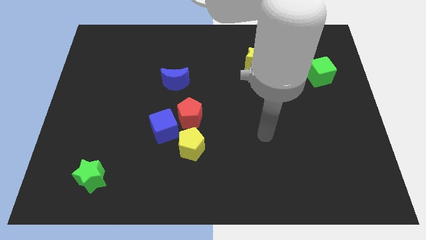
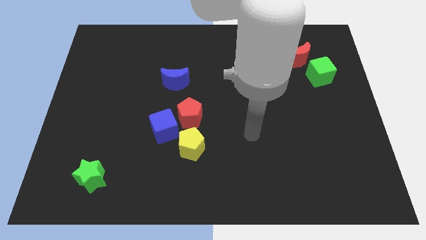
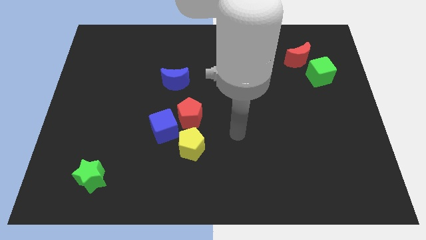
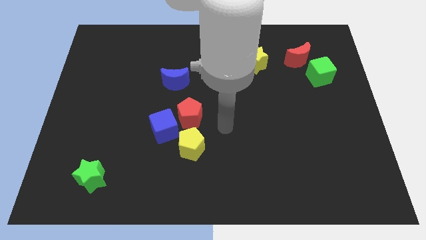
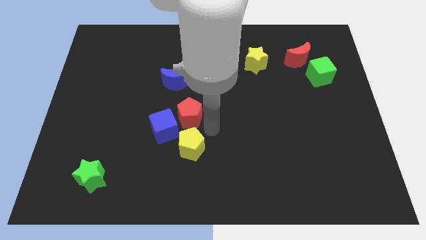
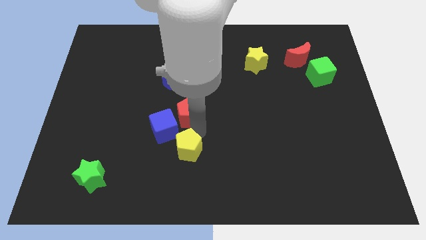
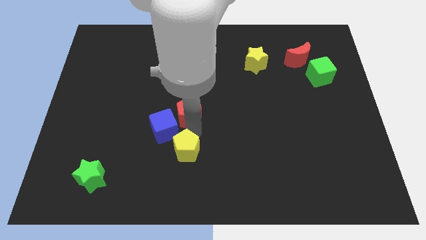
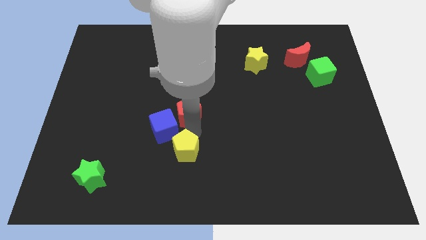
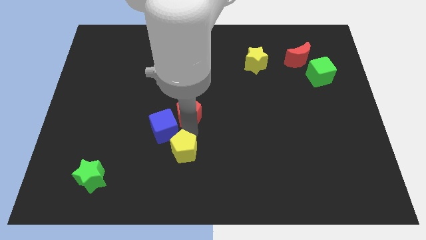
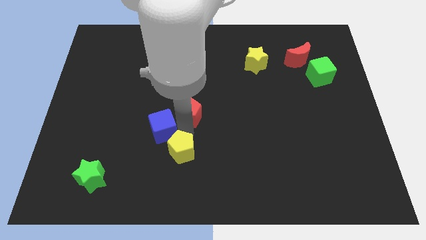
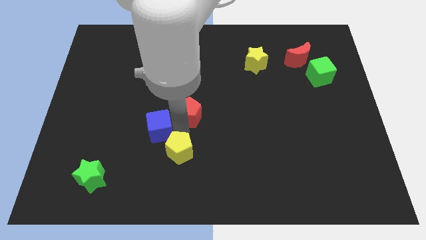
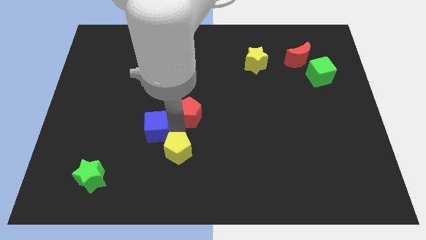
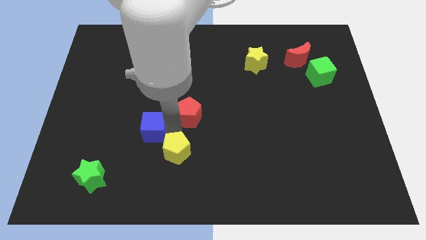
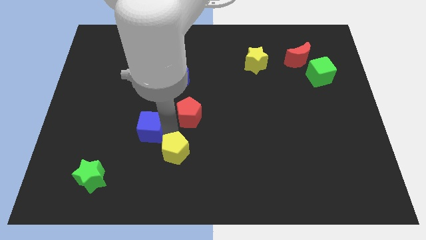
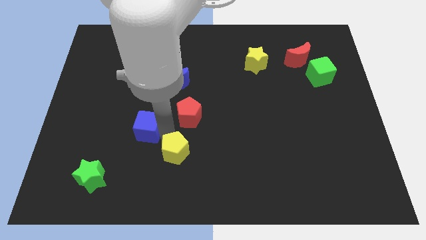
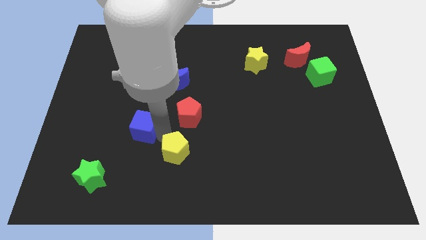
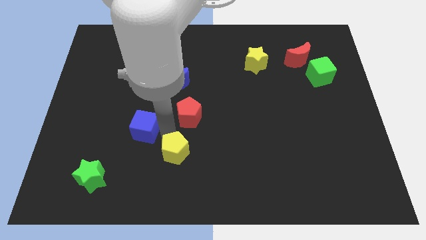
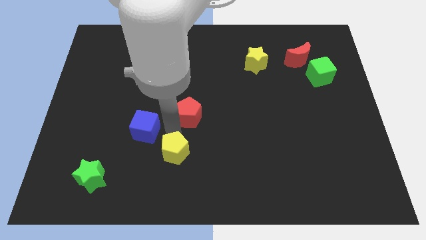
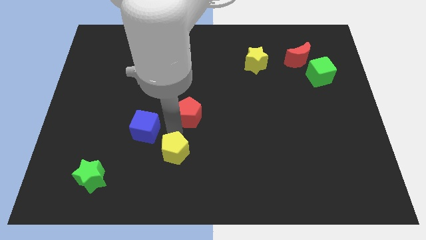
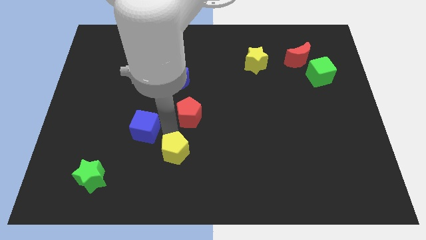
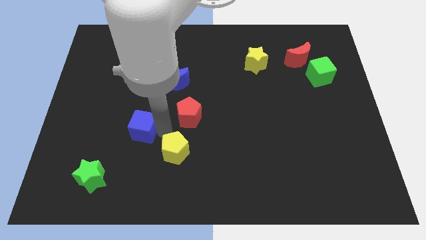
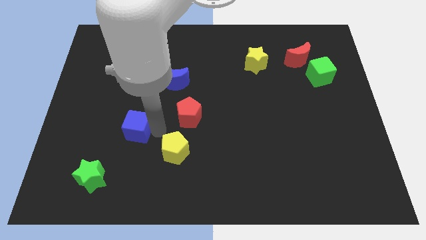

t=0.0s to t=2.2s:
move the blue cube away from the red pentagon and yellow pentagon

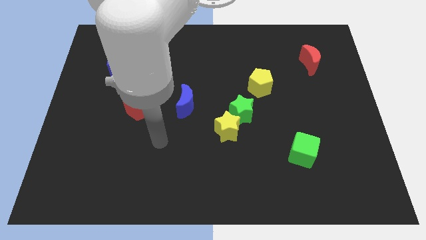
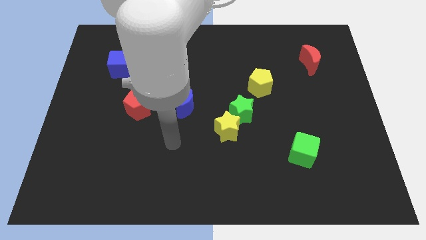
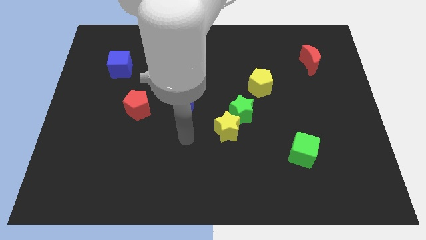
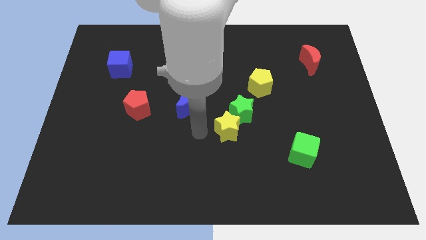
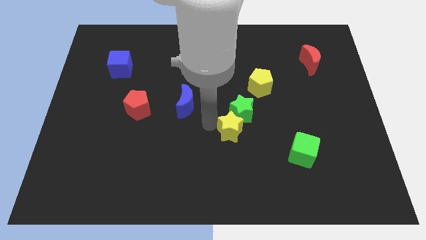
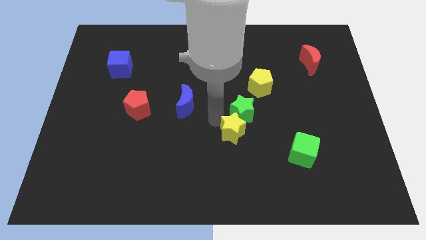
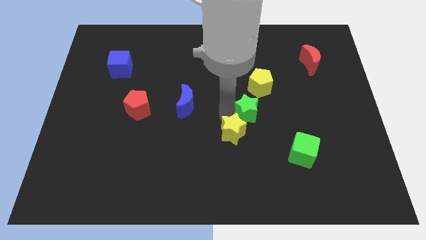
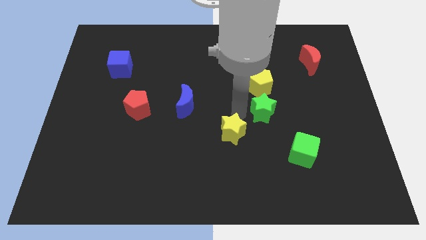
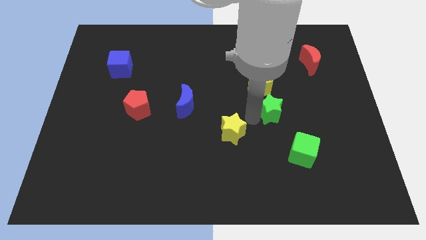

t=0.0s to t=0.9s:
move the yellow star away from the green star

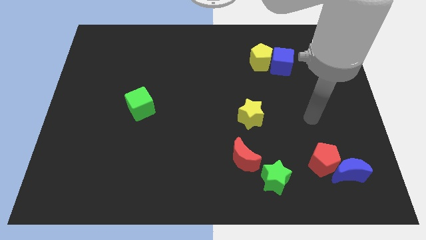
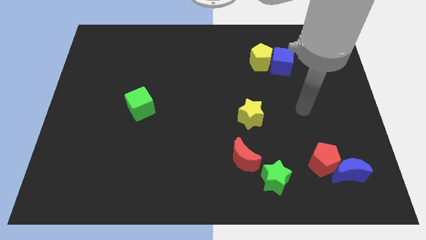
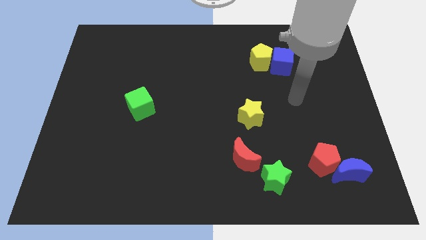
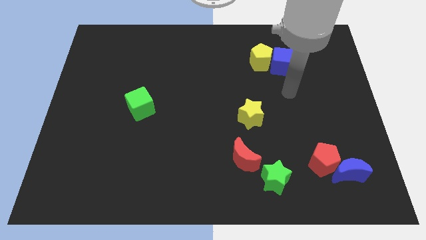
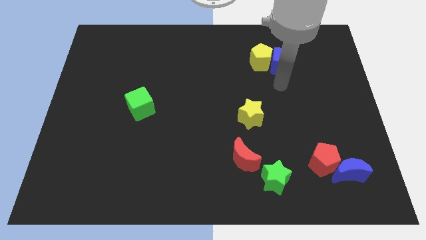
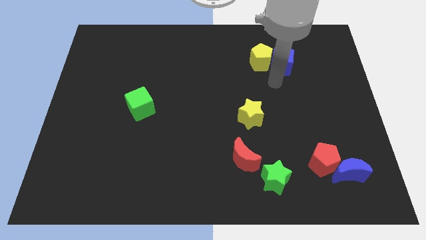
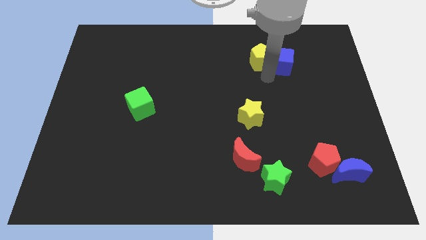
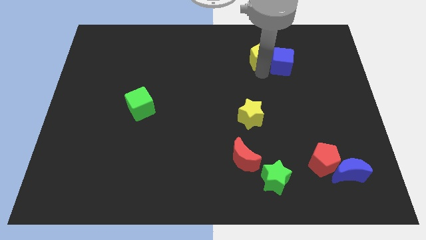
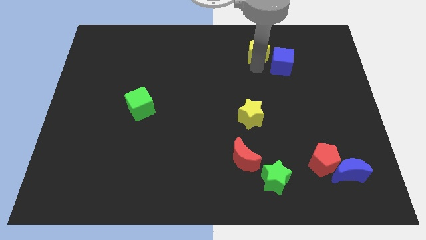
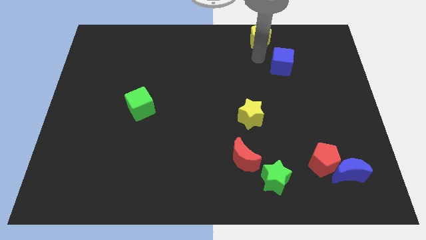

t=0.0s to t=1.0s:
pull the blue cube apart from the yellow pentagon

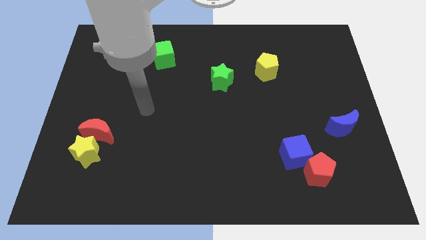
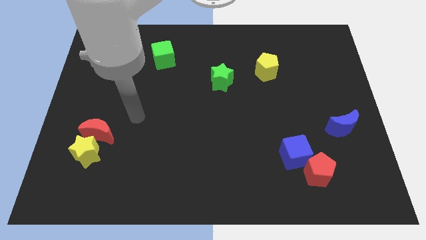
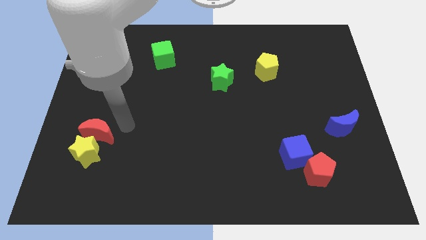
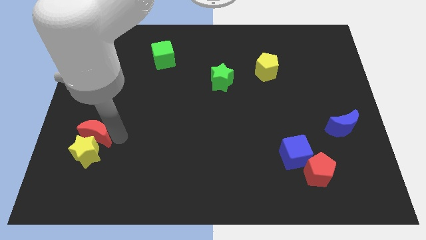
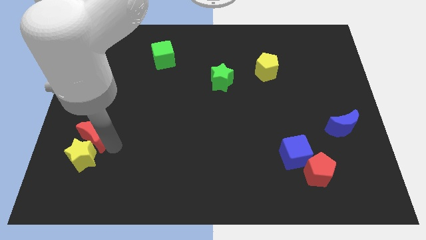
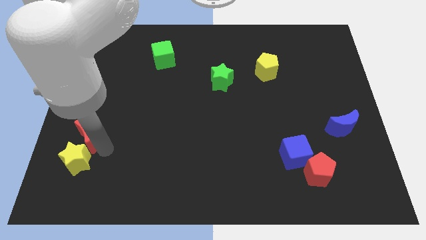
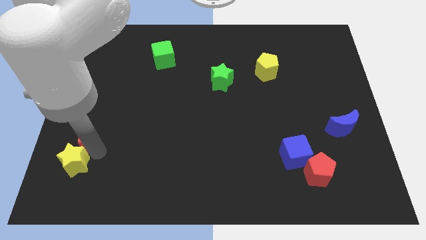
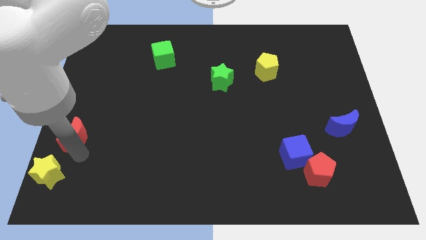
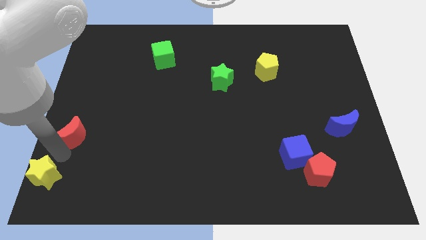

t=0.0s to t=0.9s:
separate the red moon from the yellow star

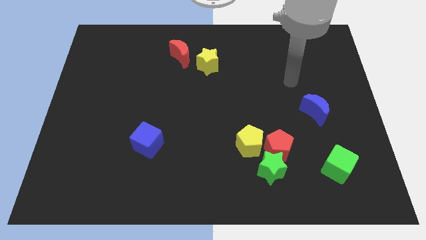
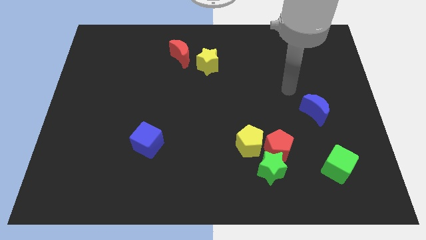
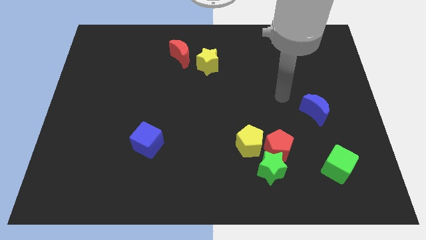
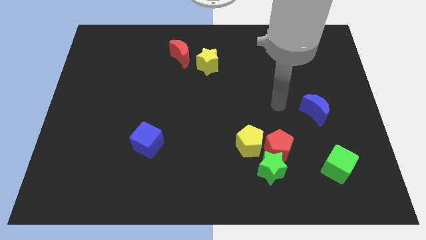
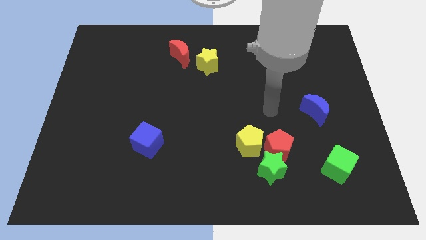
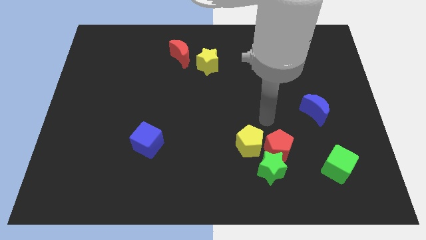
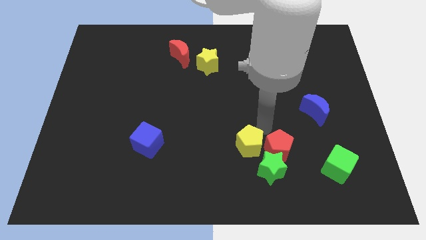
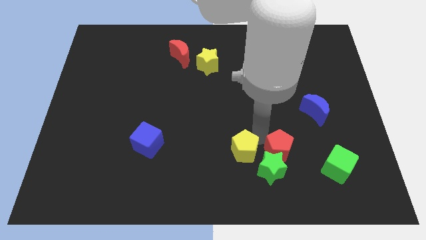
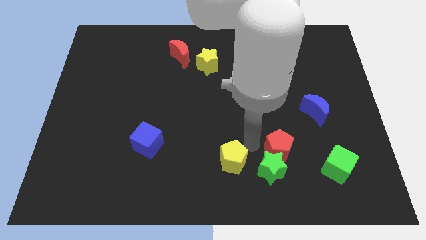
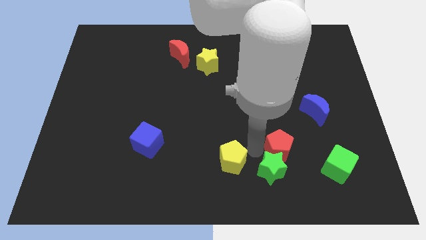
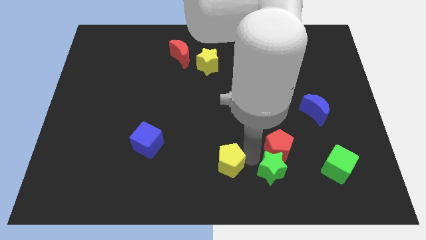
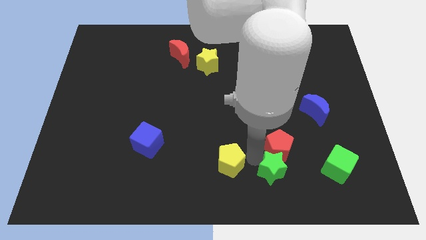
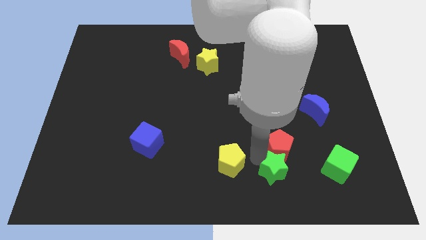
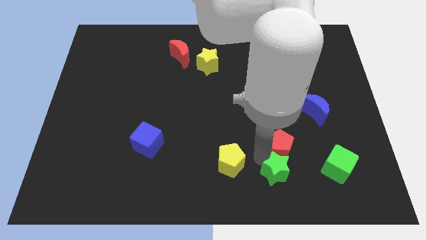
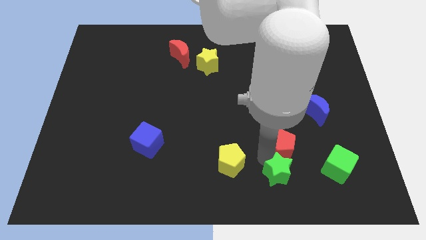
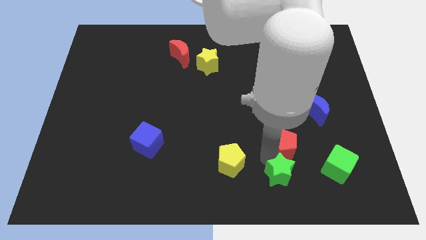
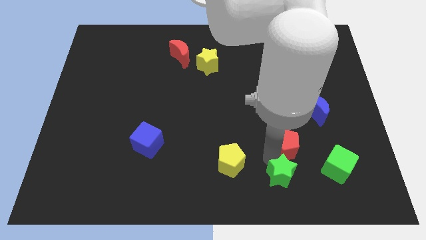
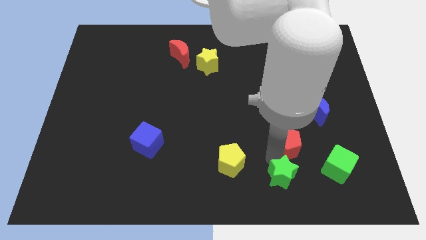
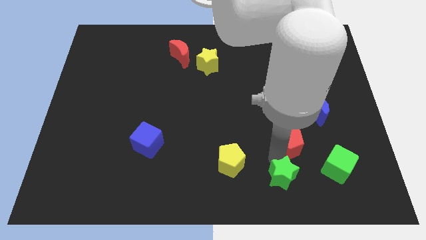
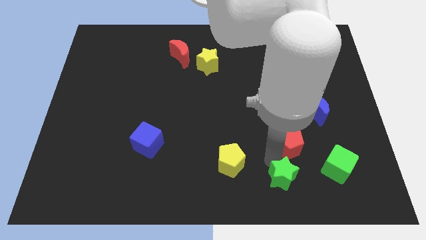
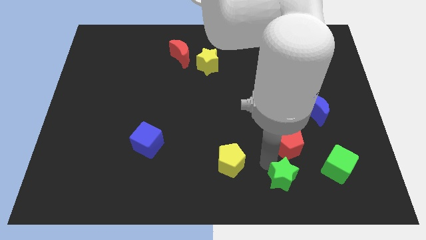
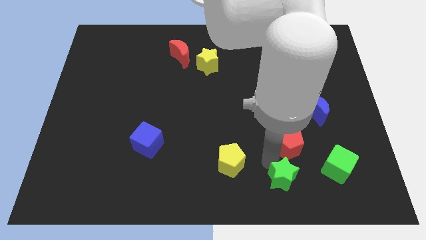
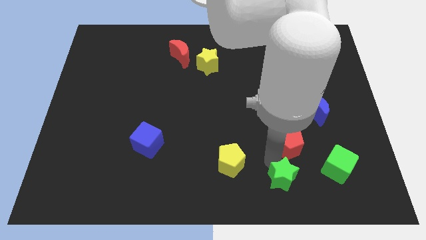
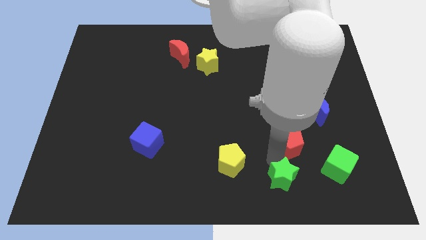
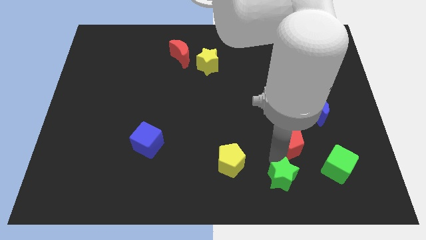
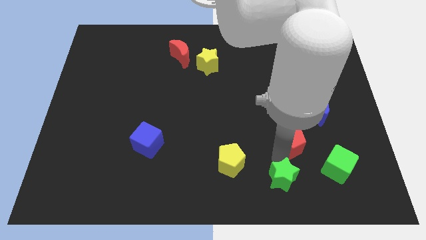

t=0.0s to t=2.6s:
separate the red pentagon from the green star and yellow pentagon

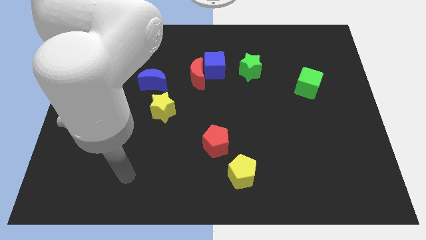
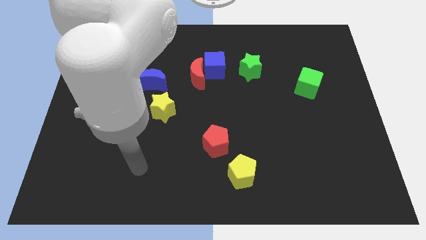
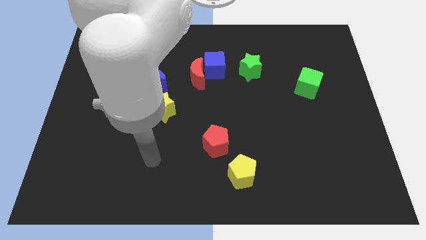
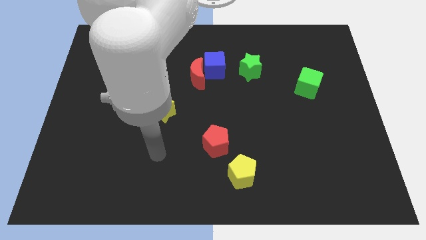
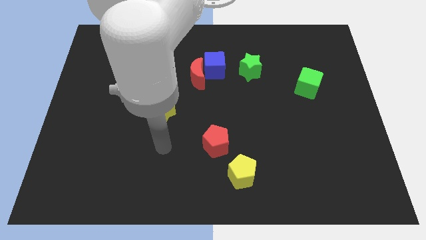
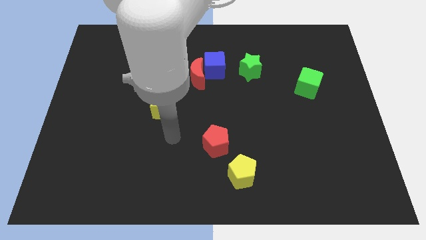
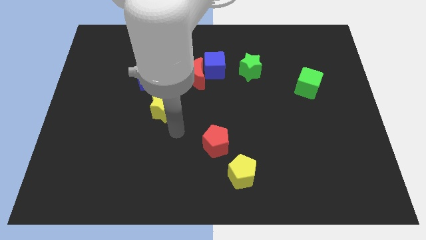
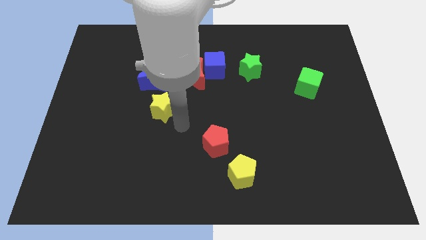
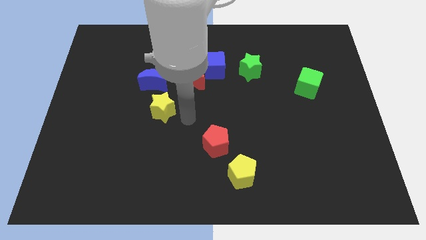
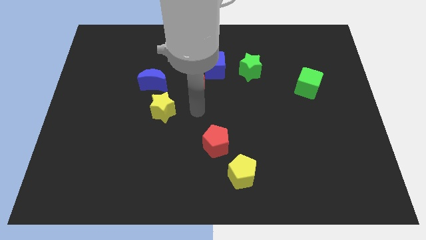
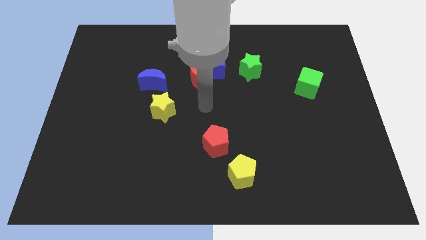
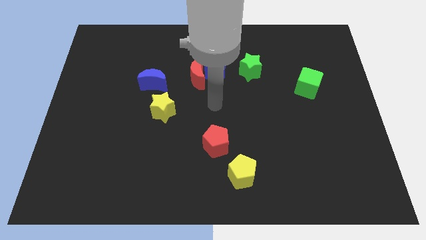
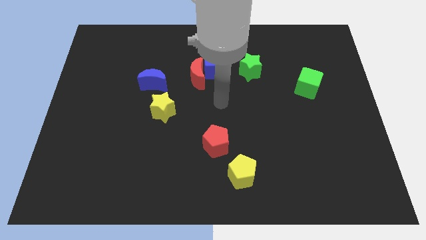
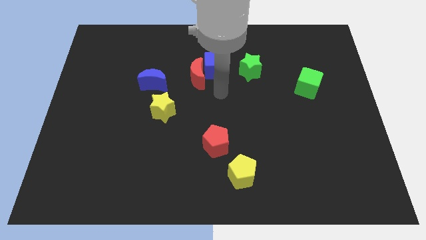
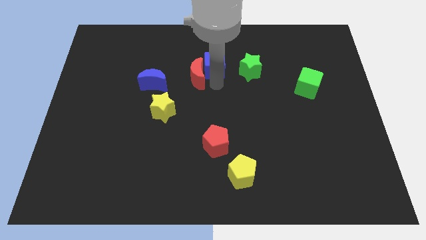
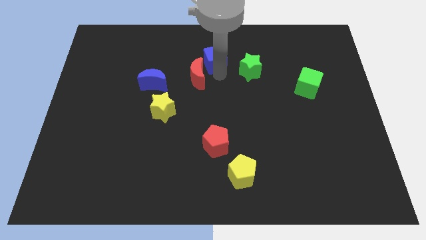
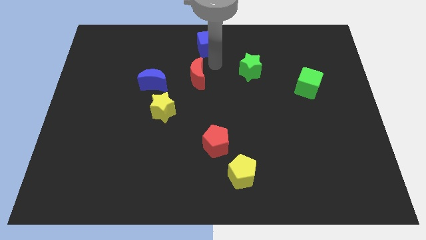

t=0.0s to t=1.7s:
move the red moon away from the blue cube
